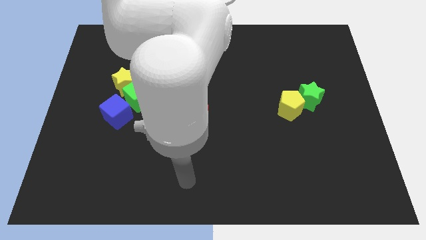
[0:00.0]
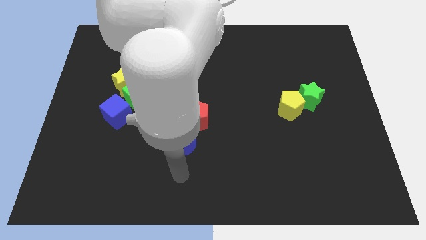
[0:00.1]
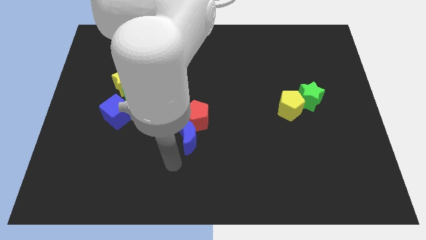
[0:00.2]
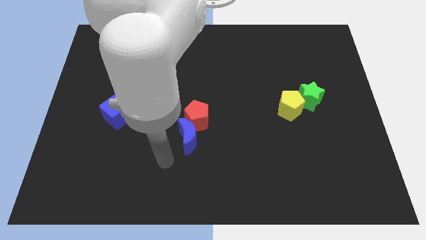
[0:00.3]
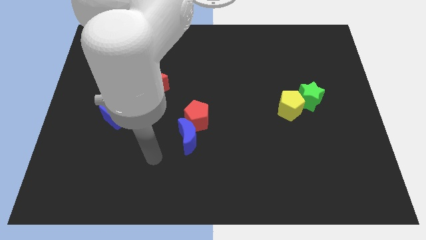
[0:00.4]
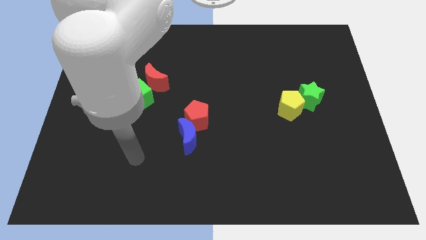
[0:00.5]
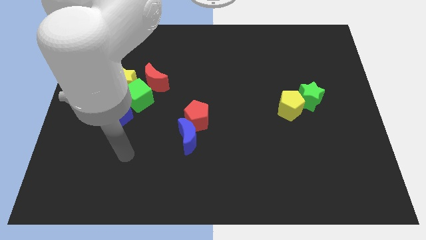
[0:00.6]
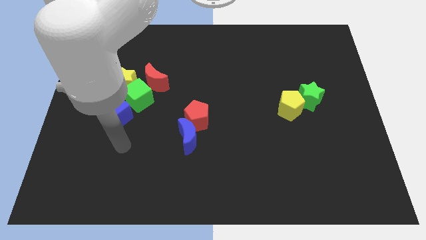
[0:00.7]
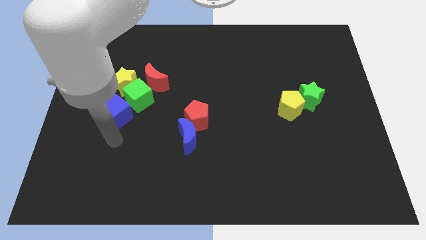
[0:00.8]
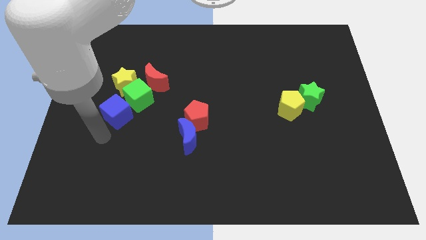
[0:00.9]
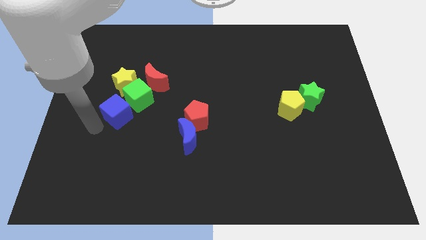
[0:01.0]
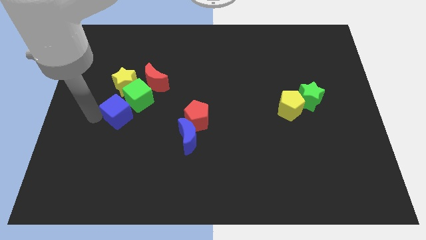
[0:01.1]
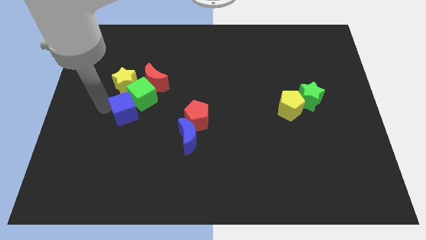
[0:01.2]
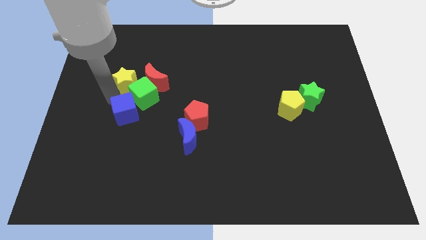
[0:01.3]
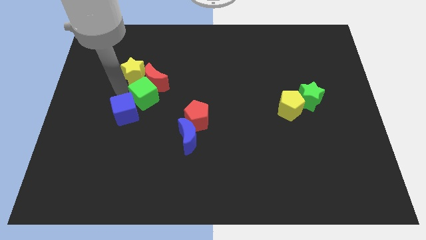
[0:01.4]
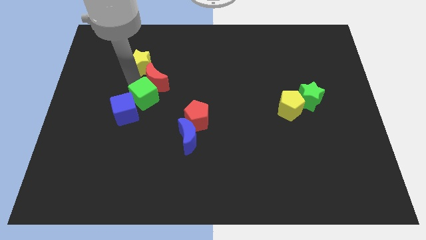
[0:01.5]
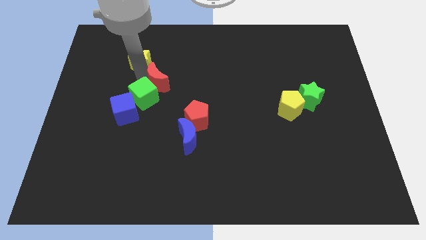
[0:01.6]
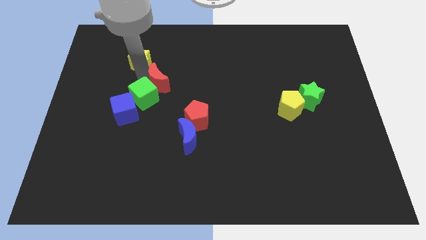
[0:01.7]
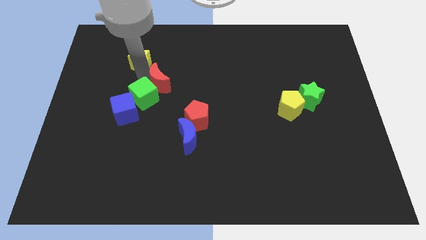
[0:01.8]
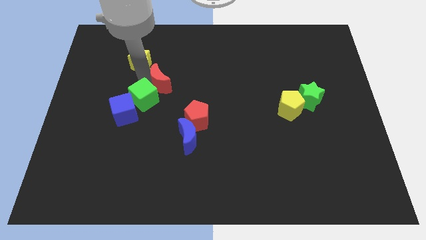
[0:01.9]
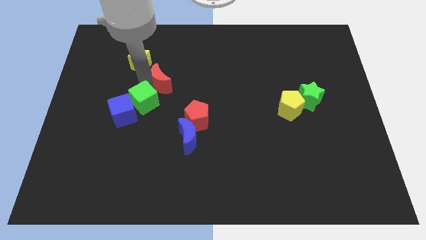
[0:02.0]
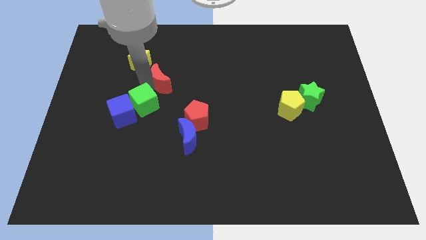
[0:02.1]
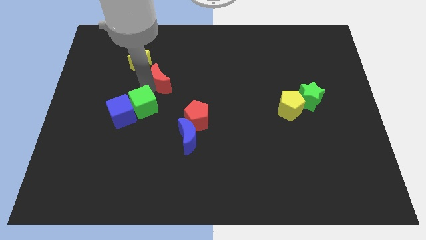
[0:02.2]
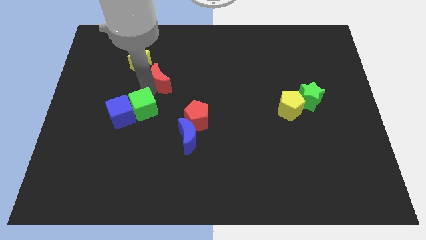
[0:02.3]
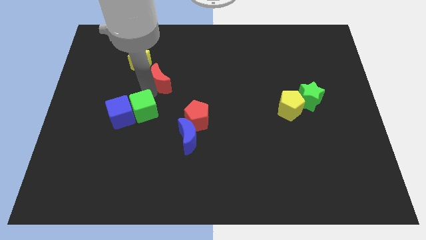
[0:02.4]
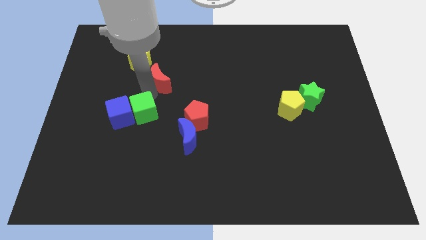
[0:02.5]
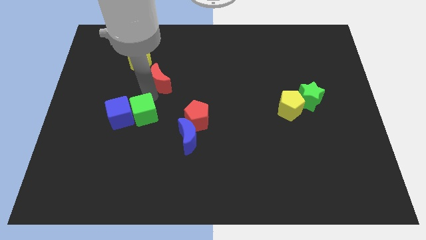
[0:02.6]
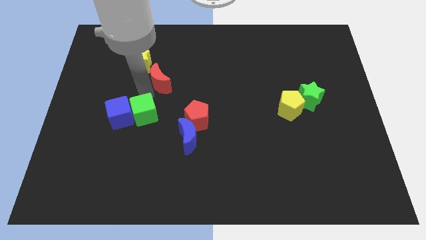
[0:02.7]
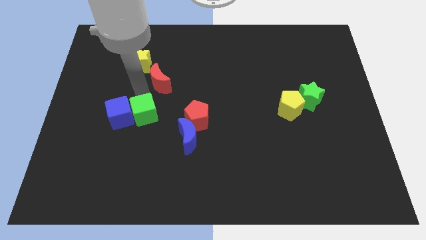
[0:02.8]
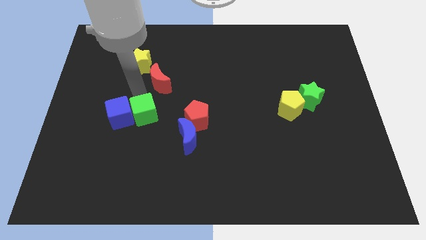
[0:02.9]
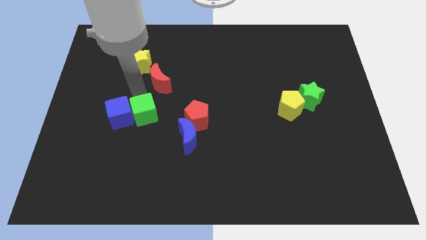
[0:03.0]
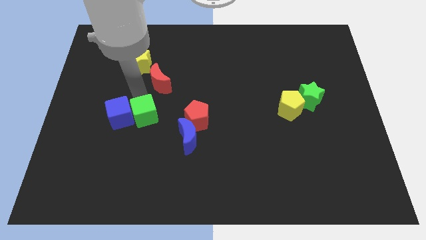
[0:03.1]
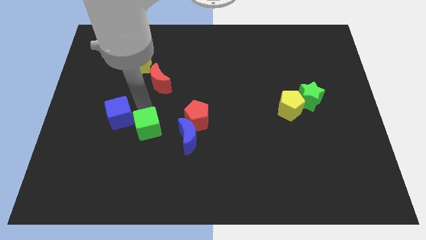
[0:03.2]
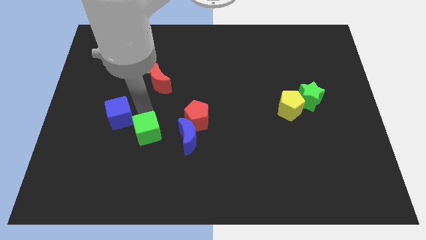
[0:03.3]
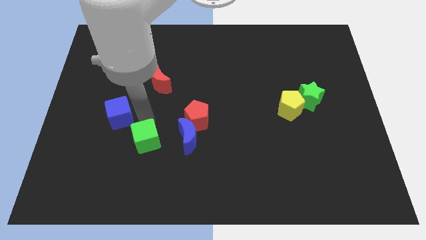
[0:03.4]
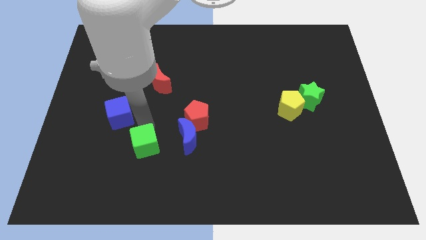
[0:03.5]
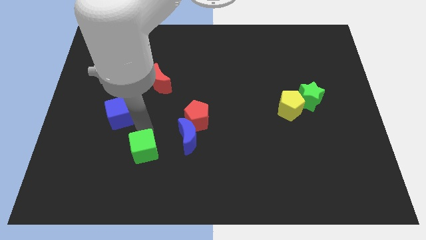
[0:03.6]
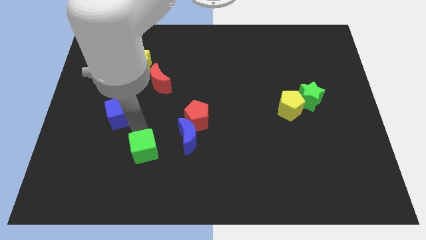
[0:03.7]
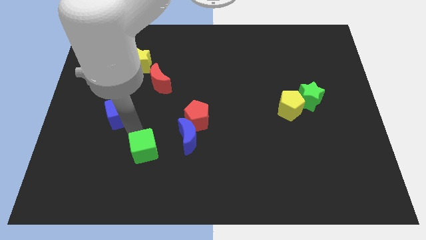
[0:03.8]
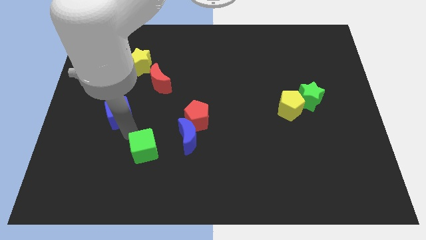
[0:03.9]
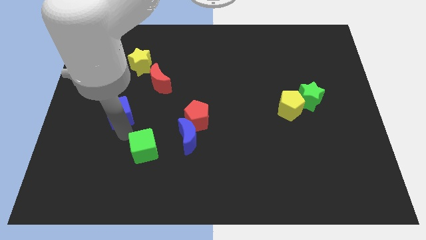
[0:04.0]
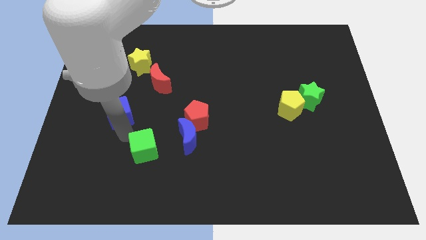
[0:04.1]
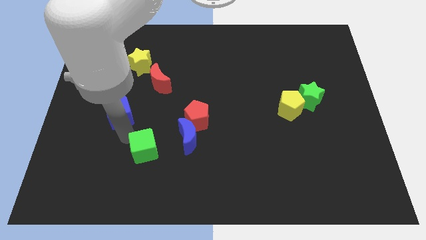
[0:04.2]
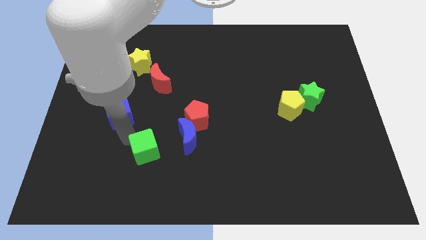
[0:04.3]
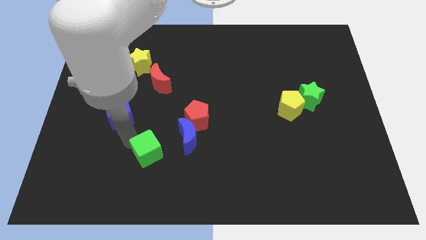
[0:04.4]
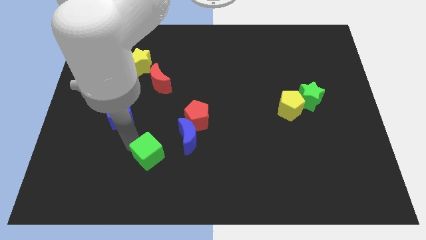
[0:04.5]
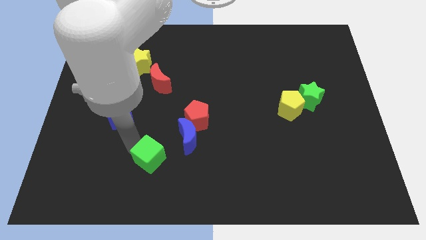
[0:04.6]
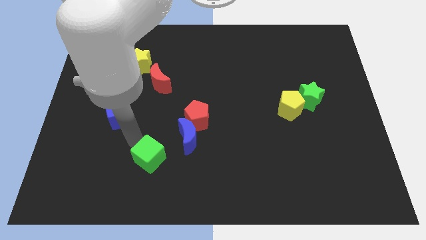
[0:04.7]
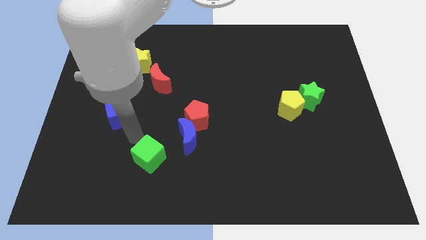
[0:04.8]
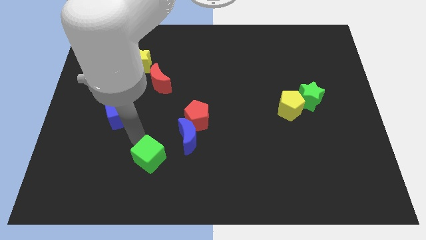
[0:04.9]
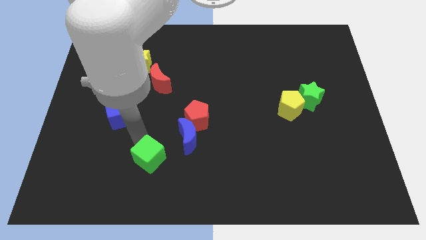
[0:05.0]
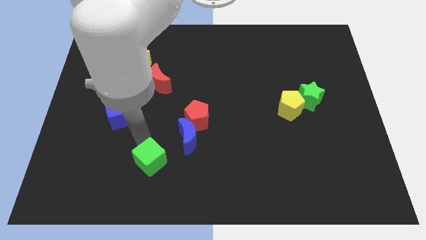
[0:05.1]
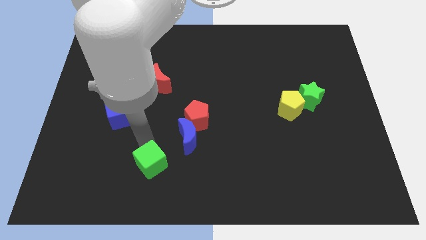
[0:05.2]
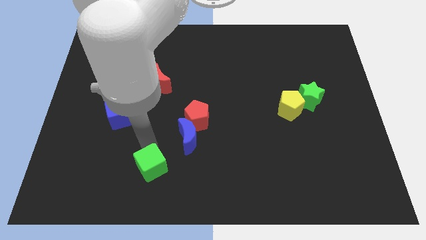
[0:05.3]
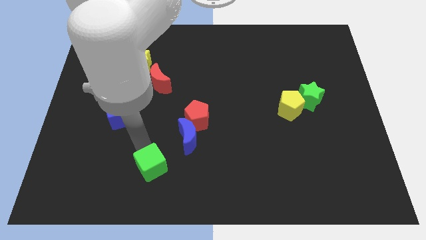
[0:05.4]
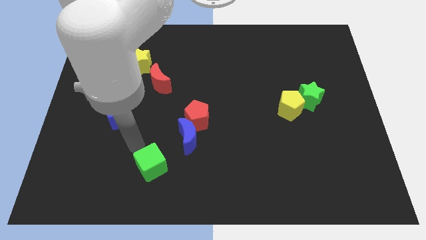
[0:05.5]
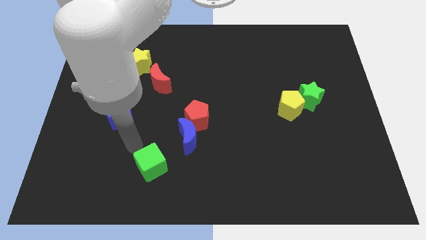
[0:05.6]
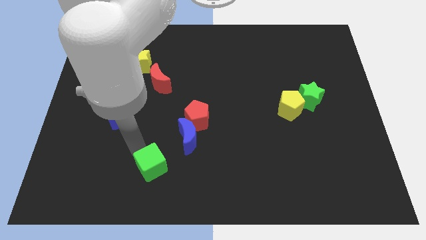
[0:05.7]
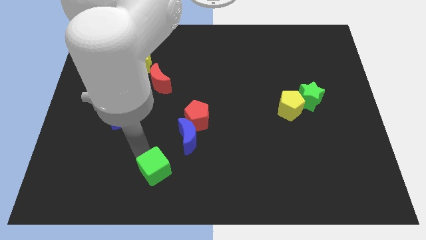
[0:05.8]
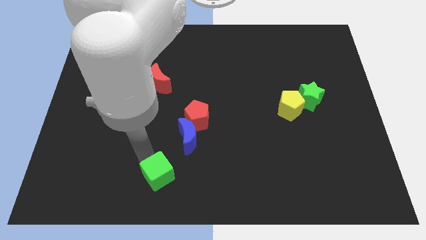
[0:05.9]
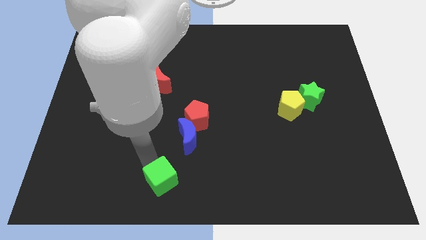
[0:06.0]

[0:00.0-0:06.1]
move the green cube to the bottom
